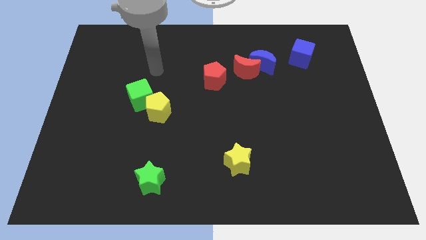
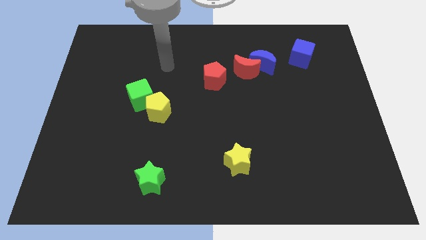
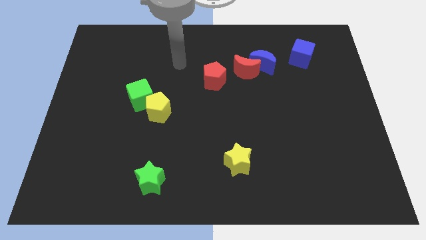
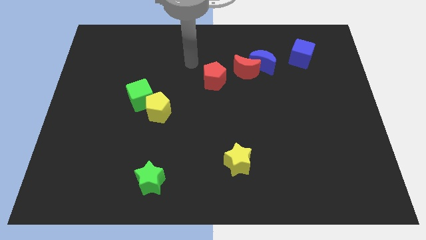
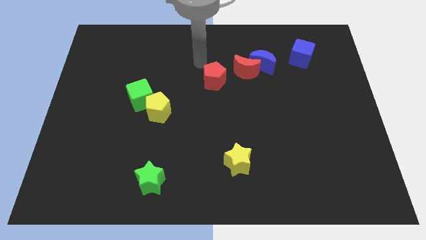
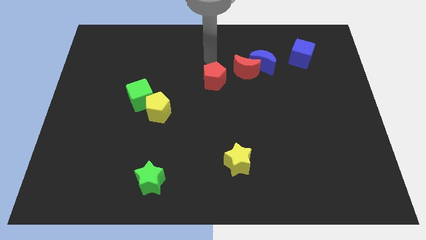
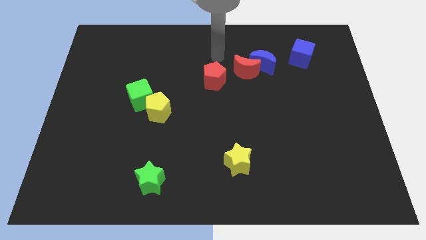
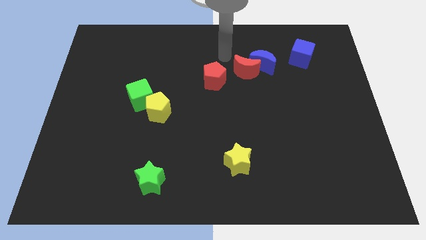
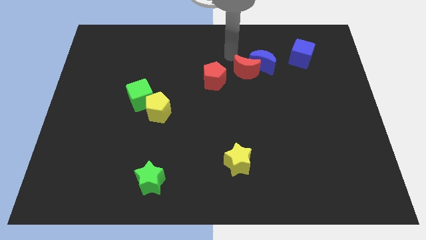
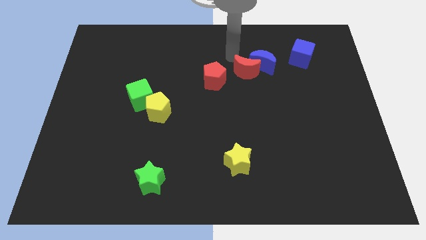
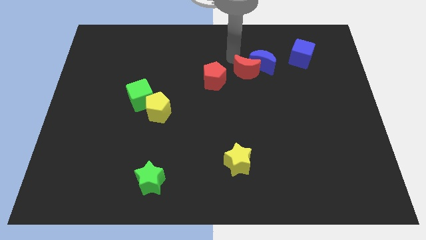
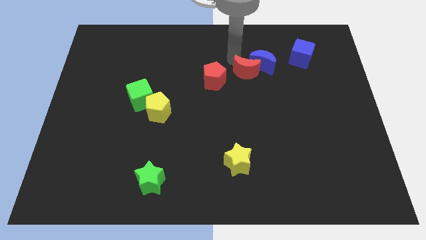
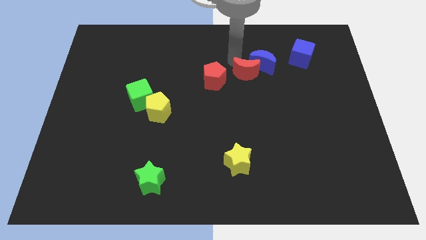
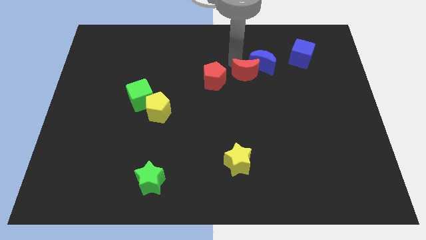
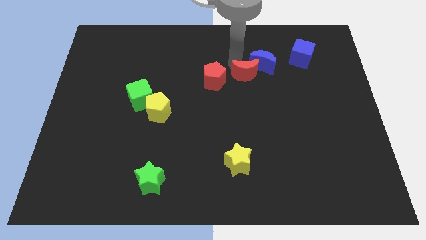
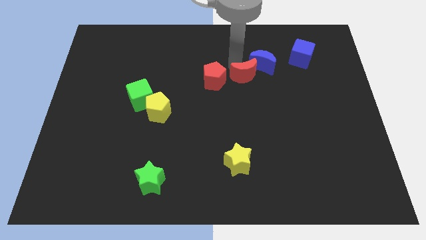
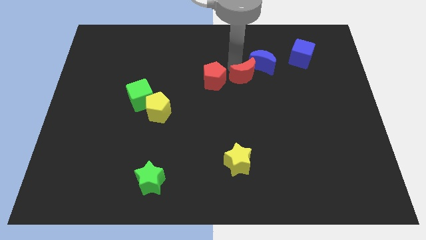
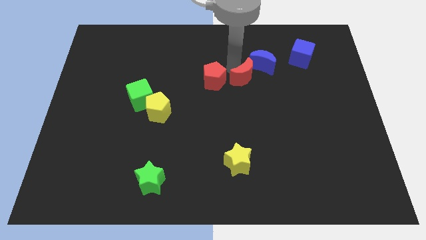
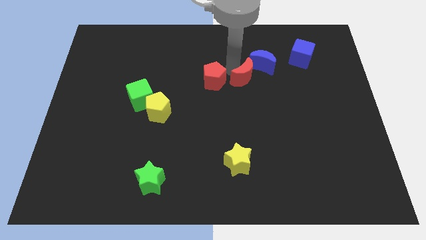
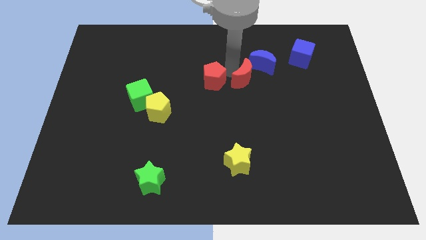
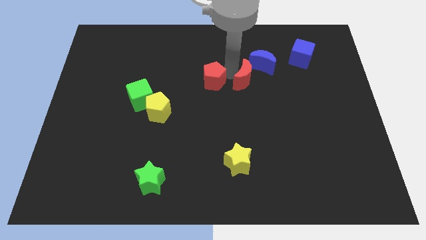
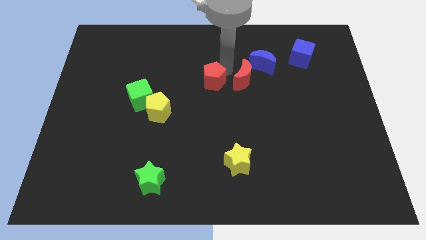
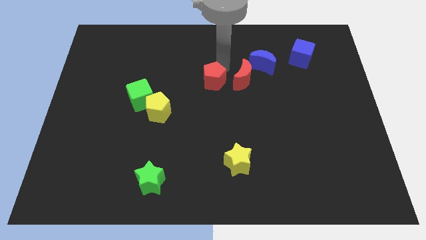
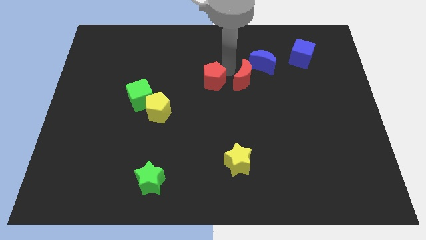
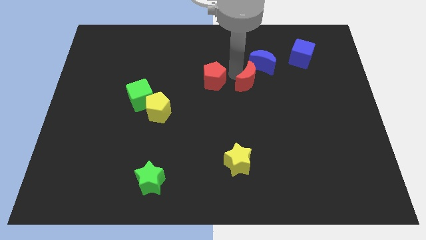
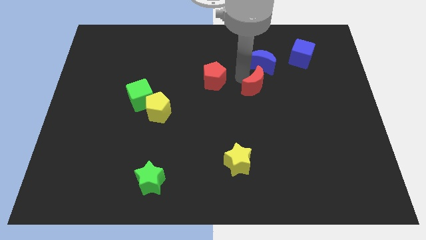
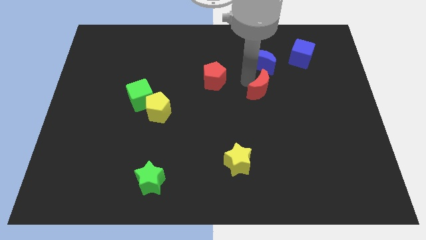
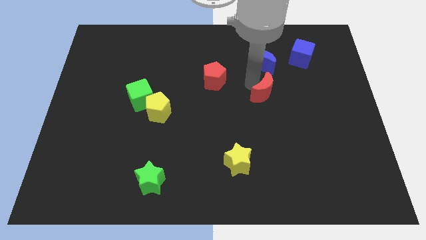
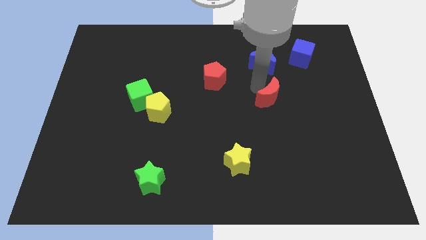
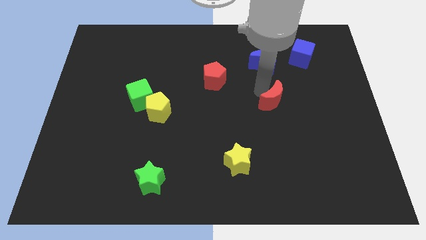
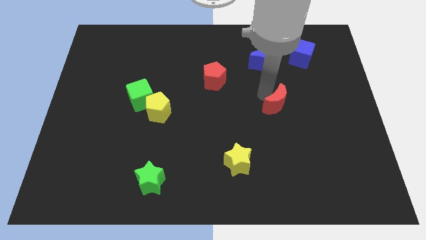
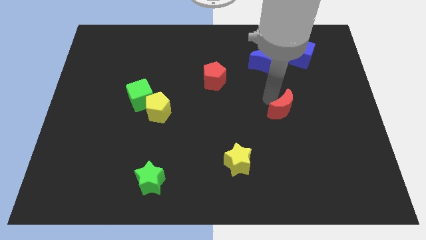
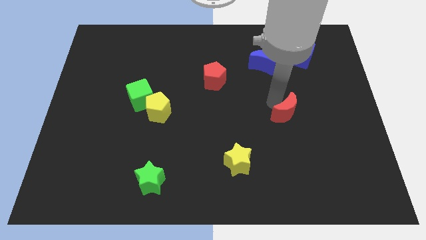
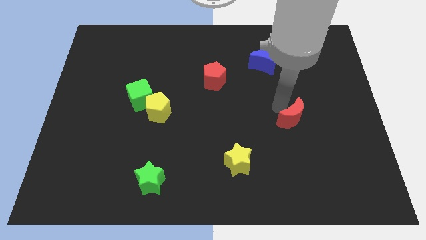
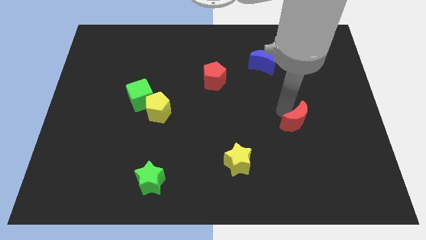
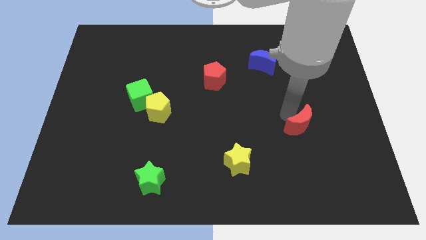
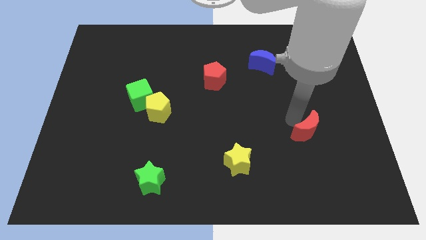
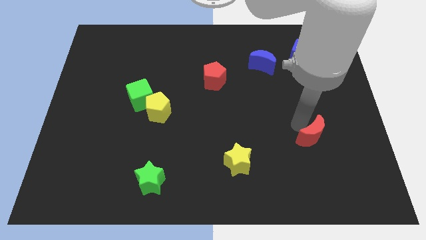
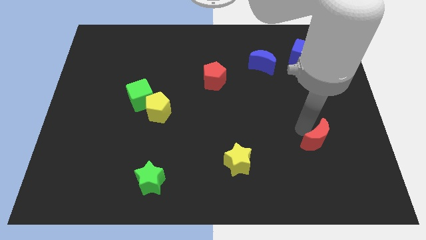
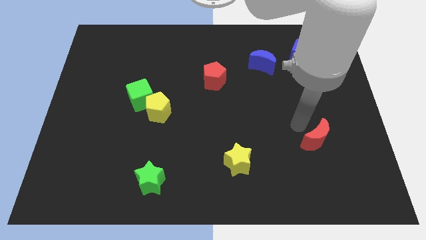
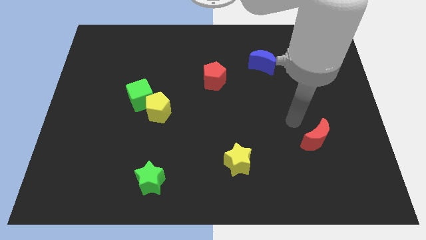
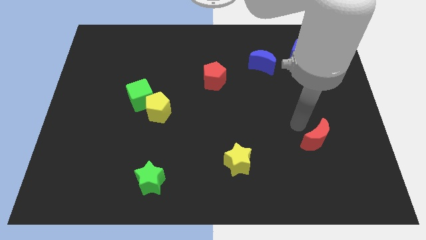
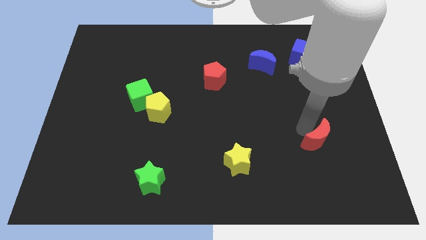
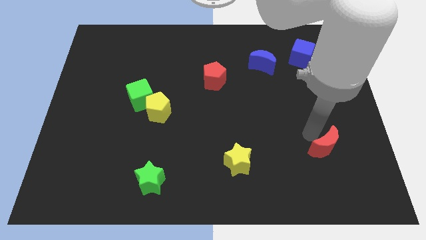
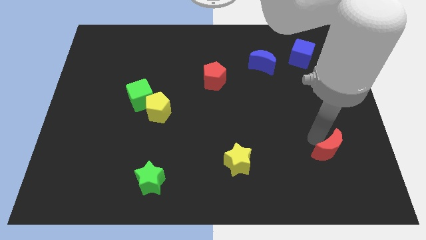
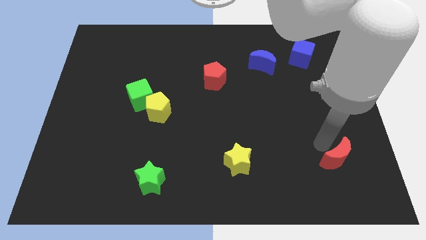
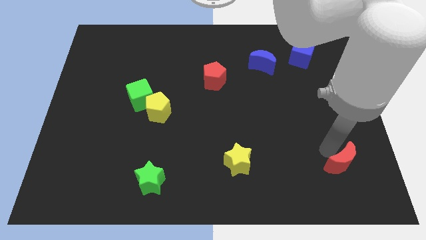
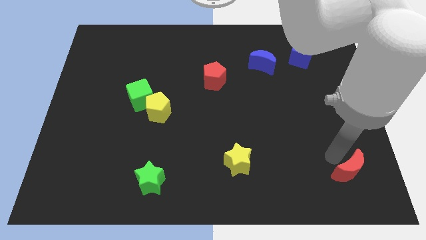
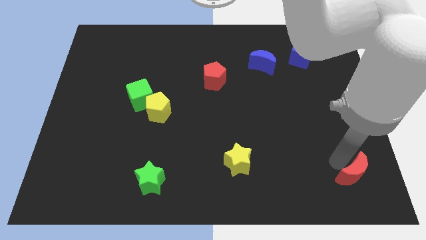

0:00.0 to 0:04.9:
move the red moon to the lower right corner

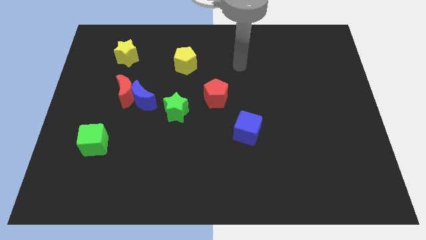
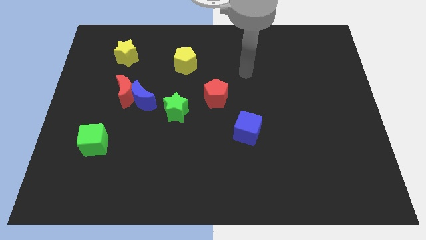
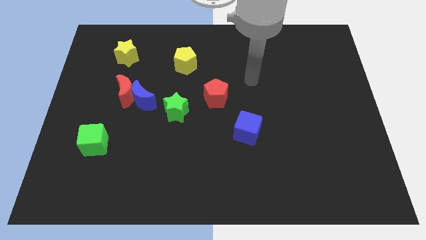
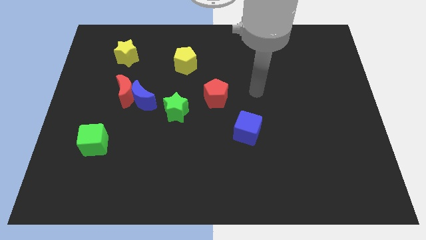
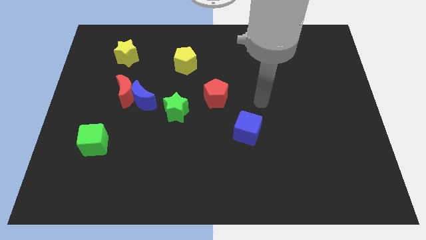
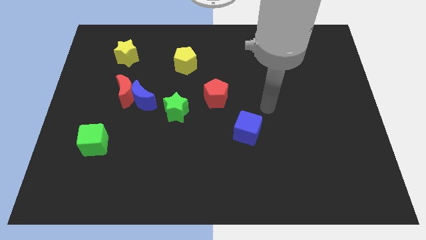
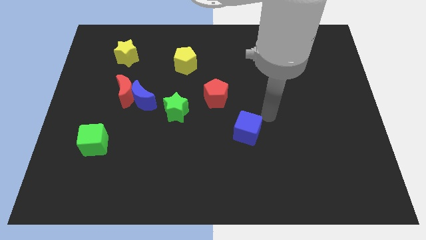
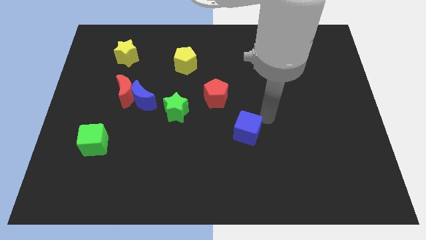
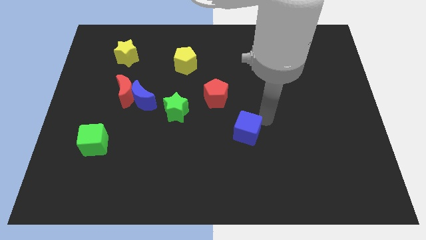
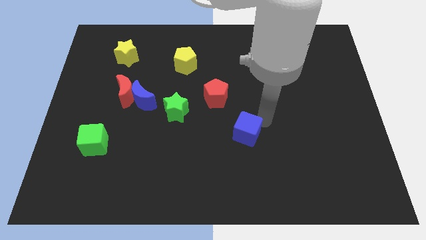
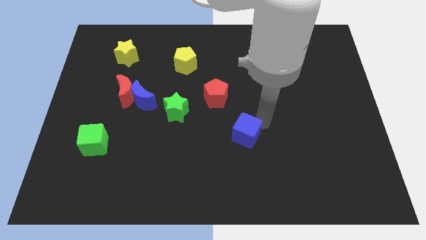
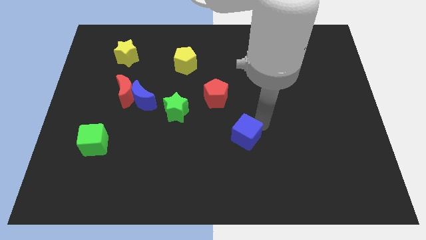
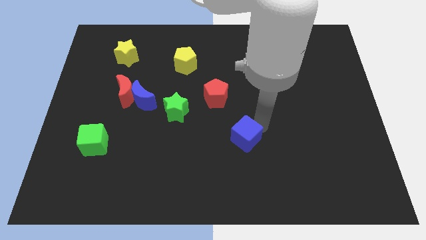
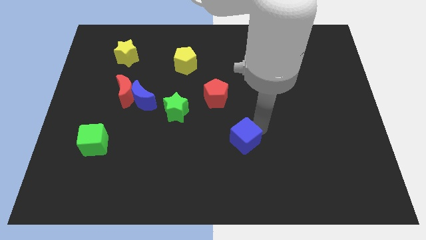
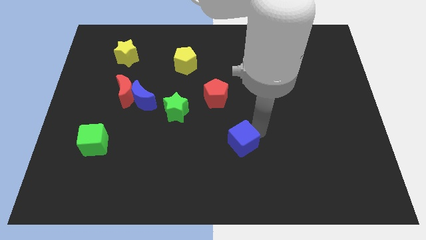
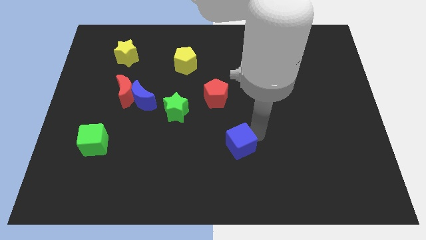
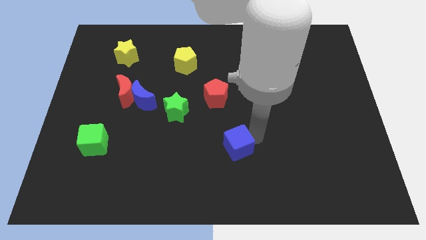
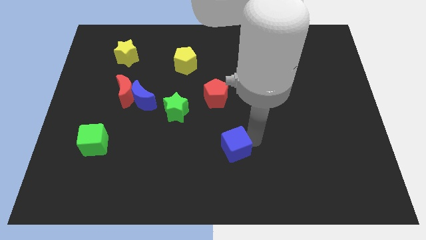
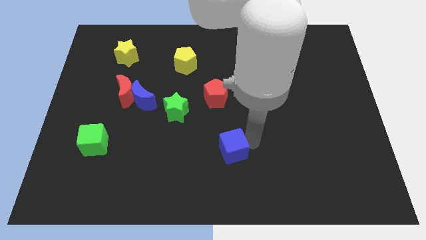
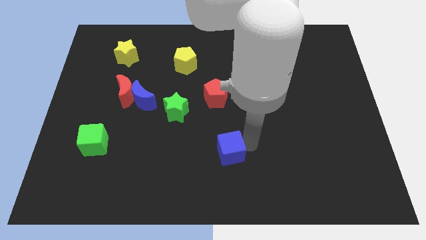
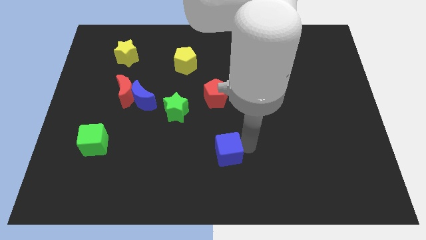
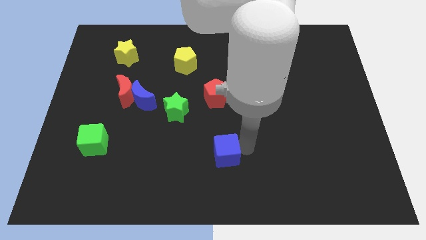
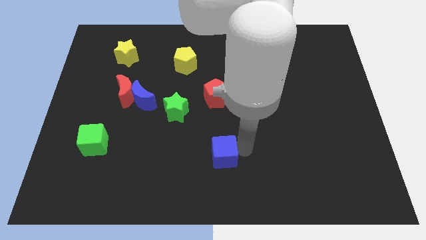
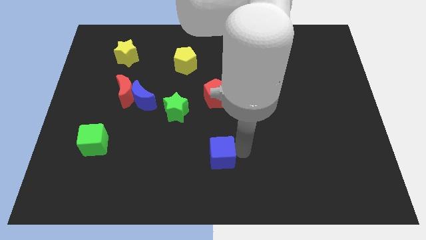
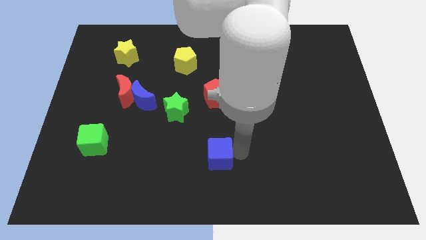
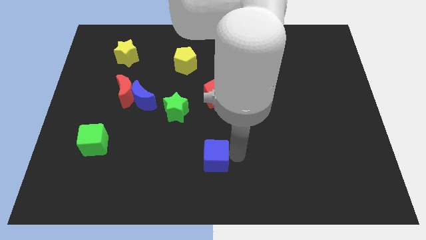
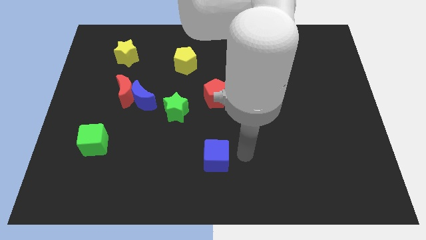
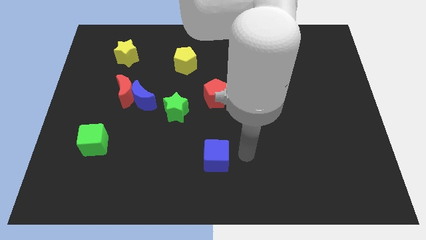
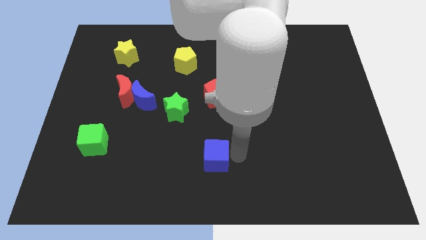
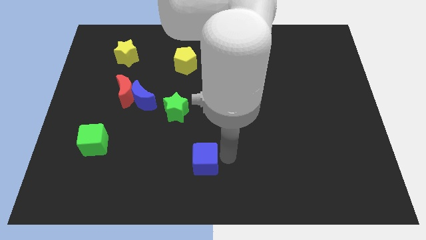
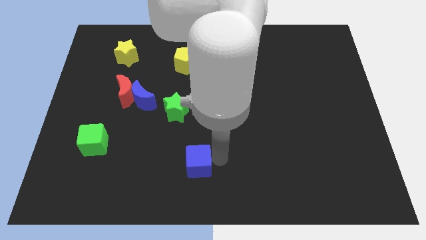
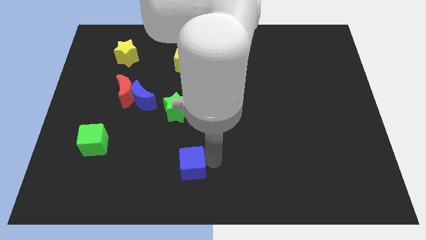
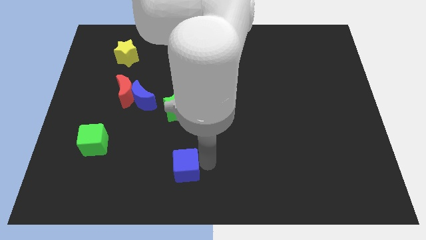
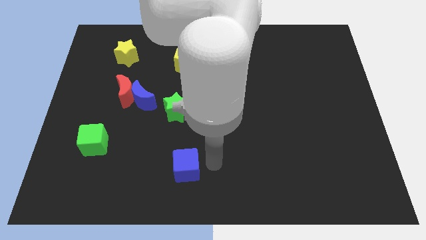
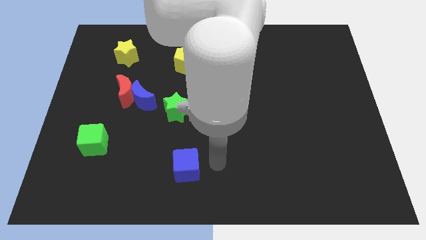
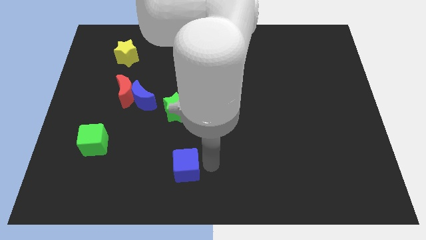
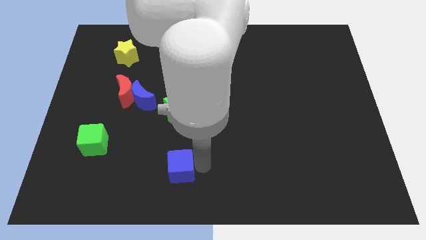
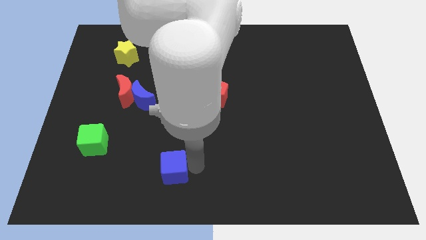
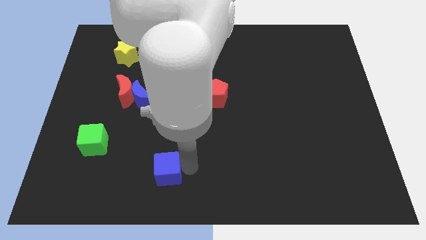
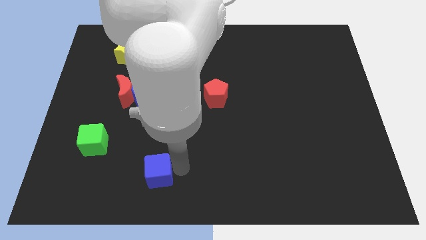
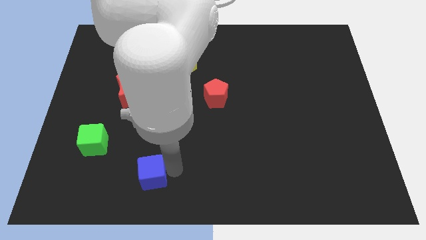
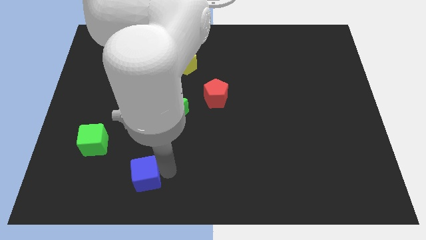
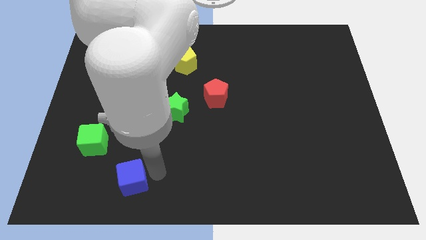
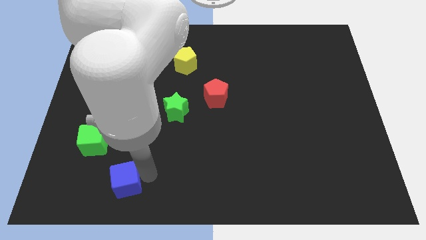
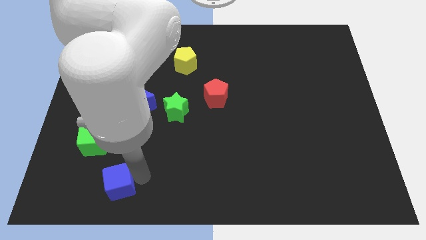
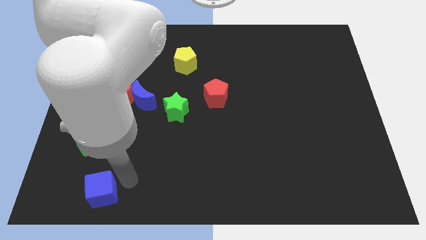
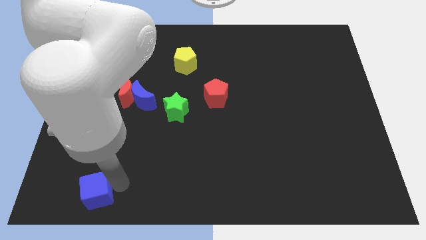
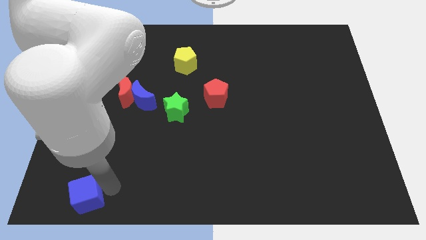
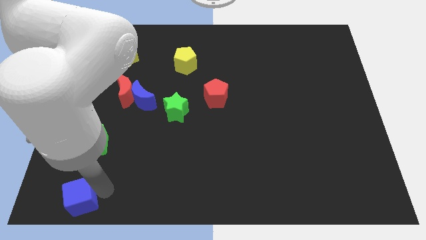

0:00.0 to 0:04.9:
move the blue cube to the bottom left corner
